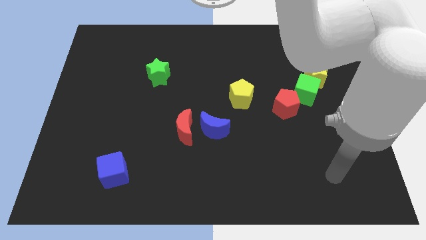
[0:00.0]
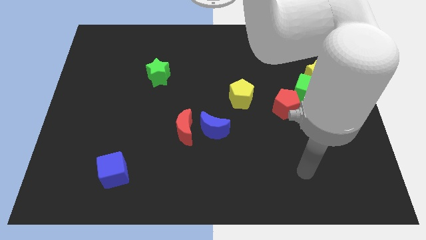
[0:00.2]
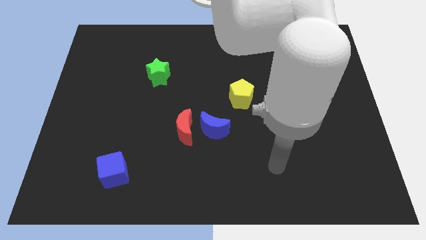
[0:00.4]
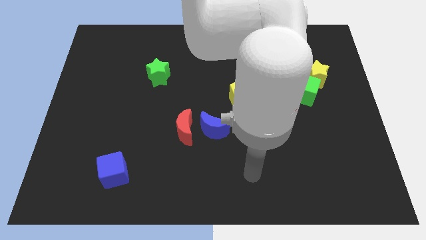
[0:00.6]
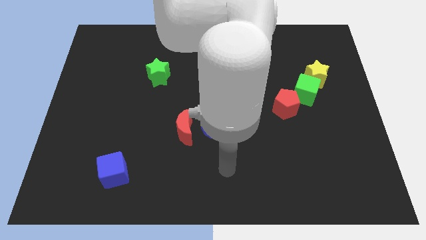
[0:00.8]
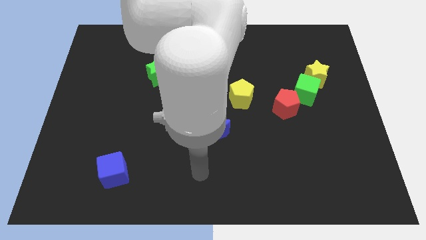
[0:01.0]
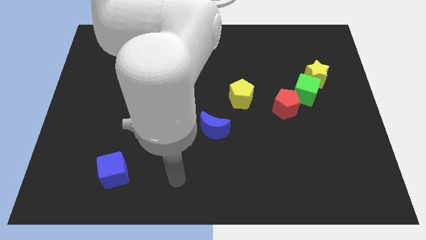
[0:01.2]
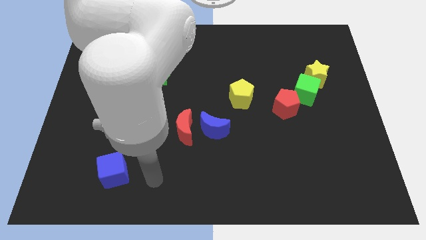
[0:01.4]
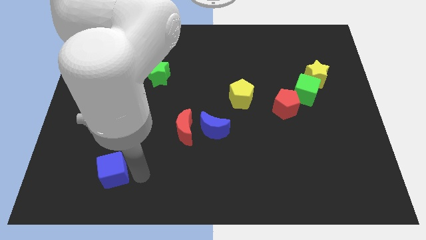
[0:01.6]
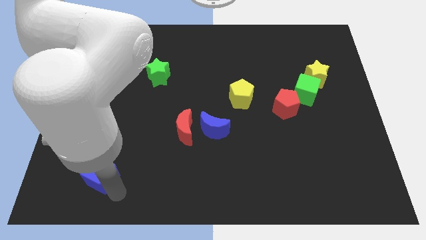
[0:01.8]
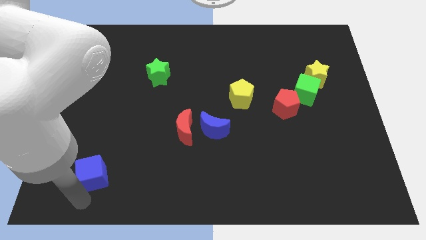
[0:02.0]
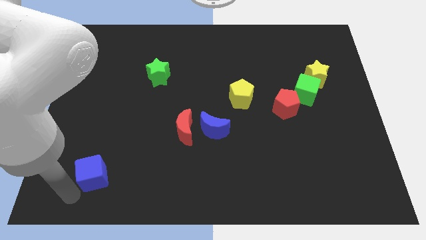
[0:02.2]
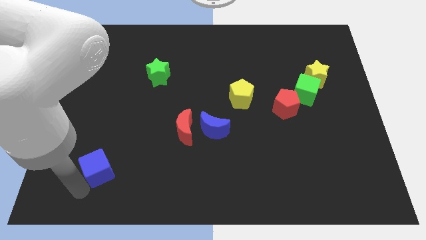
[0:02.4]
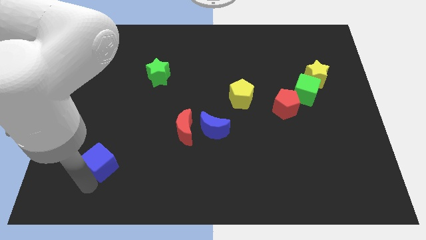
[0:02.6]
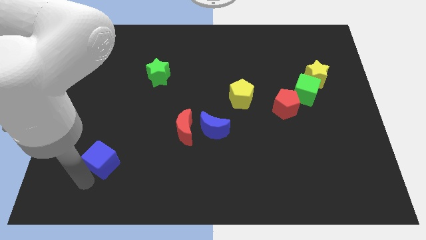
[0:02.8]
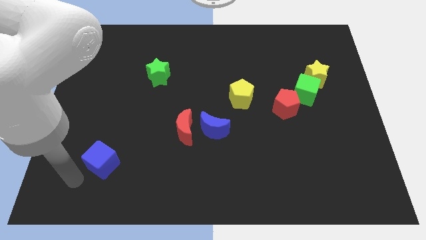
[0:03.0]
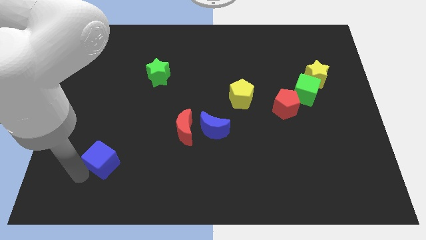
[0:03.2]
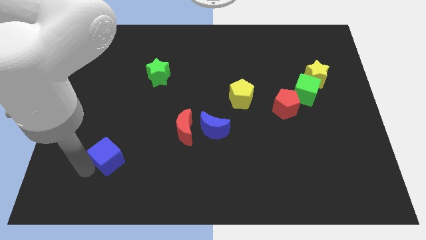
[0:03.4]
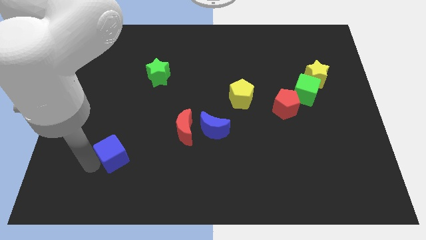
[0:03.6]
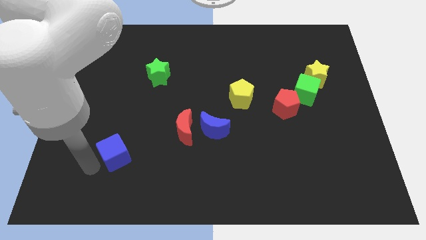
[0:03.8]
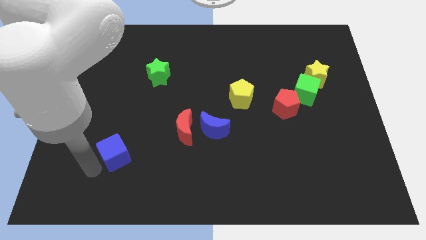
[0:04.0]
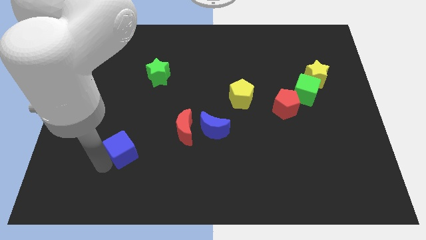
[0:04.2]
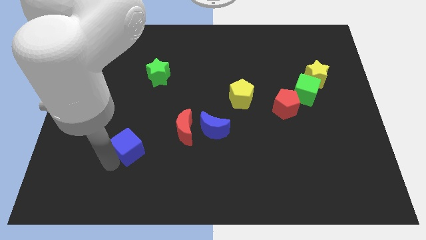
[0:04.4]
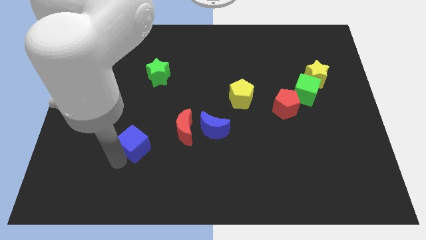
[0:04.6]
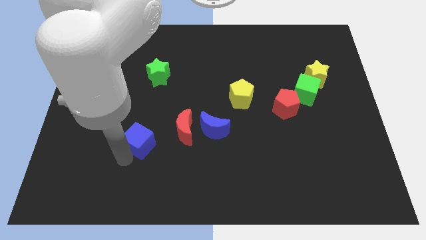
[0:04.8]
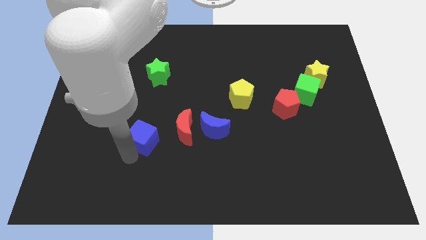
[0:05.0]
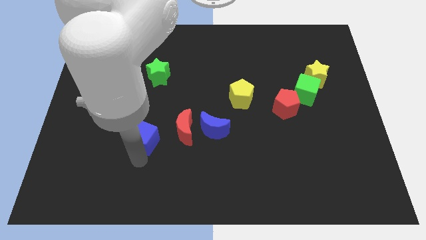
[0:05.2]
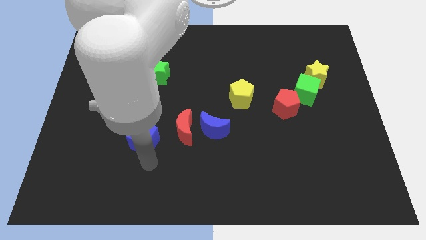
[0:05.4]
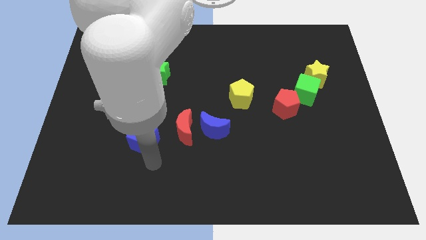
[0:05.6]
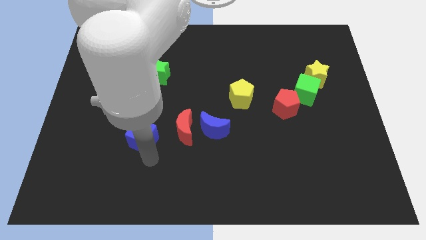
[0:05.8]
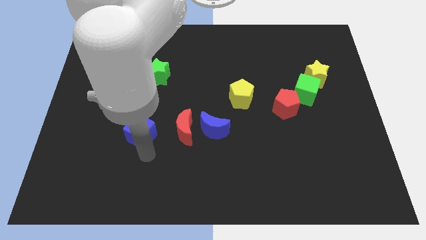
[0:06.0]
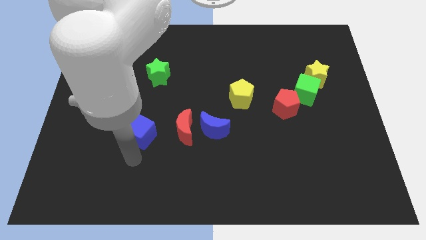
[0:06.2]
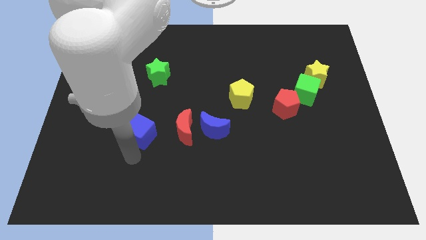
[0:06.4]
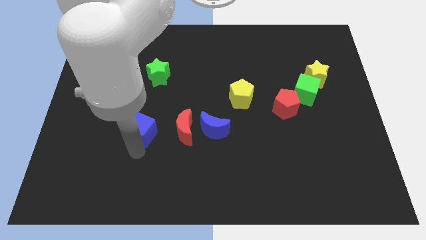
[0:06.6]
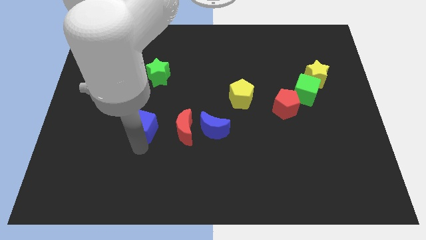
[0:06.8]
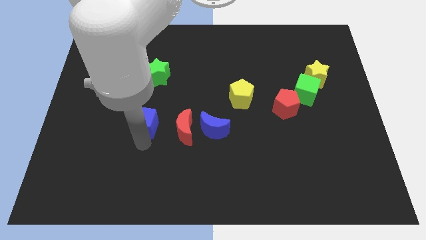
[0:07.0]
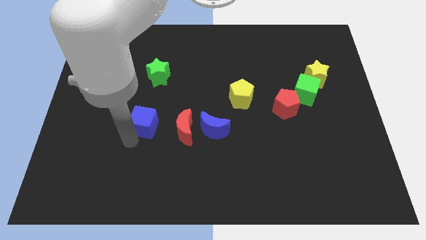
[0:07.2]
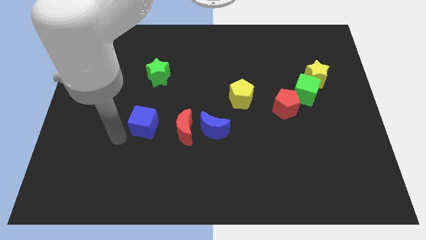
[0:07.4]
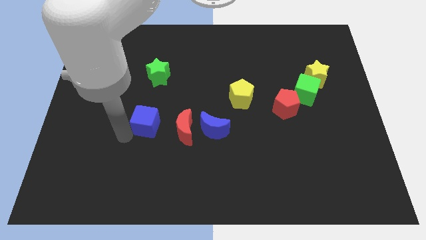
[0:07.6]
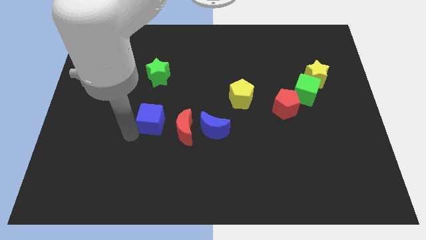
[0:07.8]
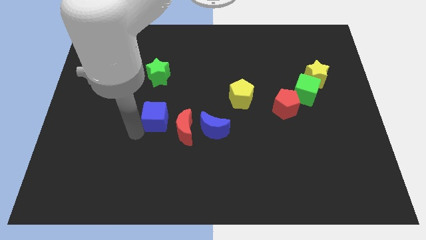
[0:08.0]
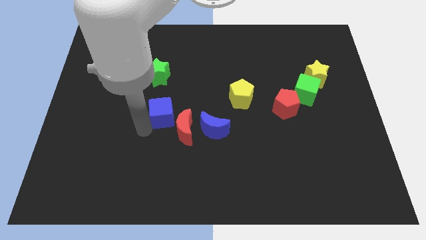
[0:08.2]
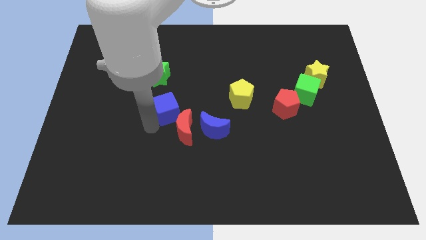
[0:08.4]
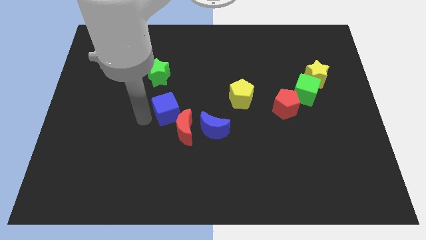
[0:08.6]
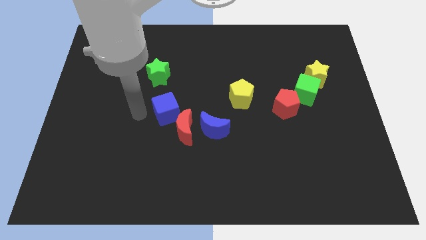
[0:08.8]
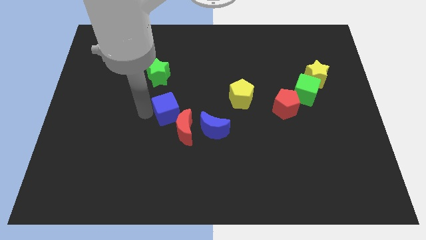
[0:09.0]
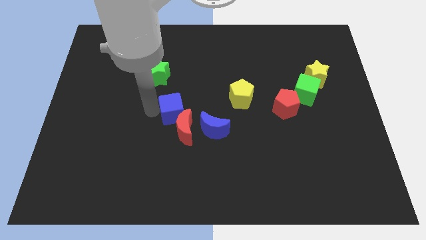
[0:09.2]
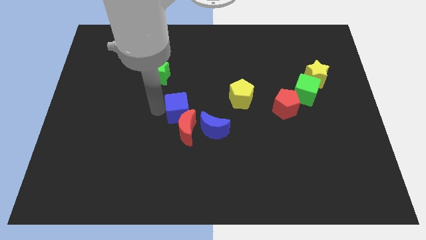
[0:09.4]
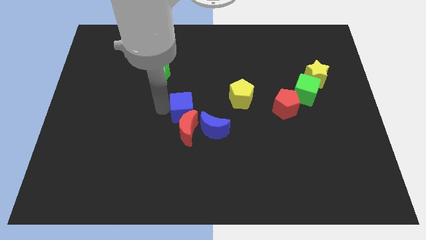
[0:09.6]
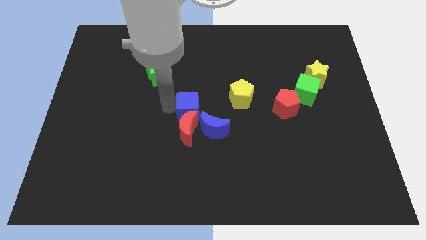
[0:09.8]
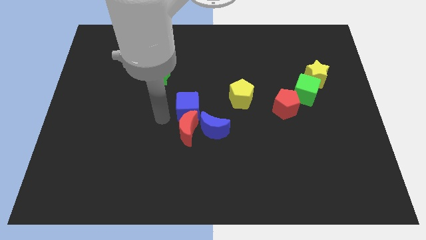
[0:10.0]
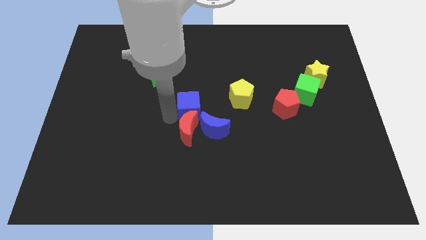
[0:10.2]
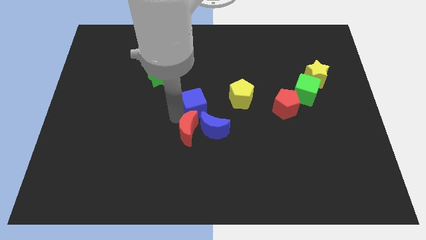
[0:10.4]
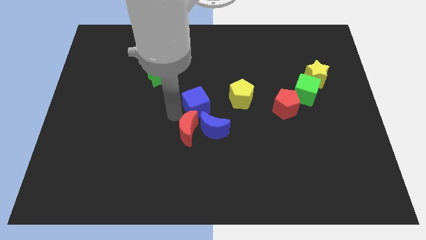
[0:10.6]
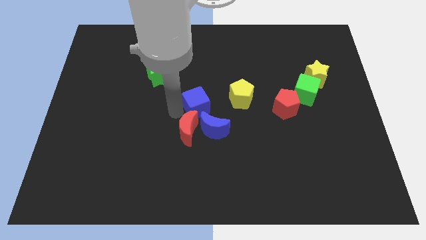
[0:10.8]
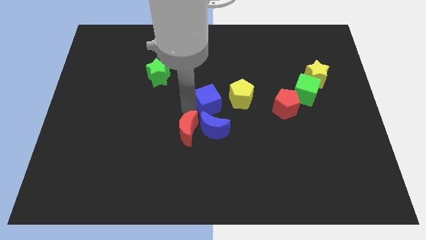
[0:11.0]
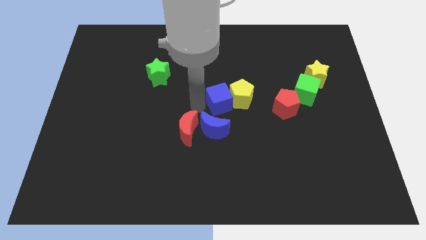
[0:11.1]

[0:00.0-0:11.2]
put the blue cube towards the yellow pentagon
